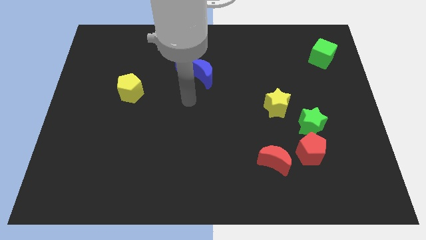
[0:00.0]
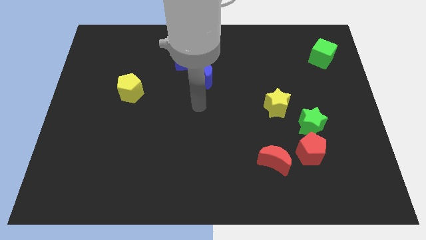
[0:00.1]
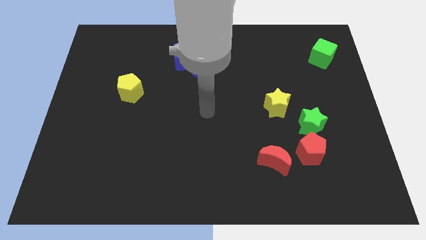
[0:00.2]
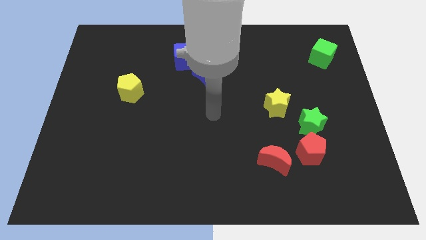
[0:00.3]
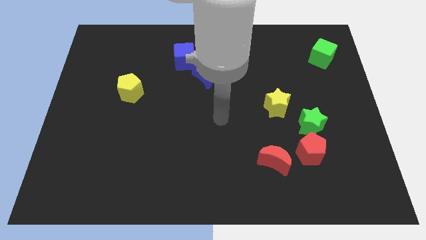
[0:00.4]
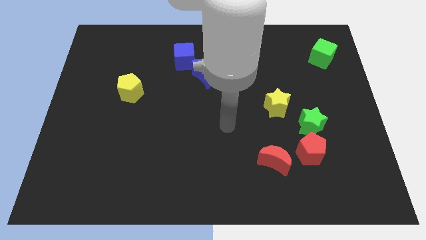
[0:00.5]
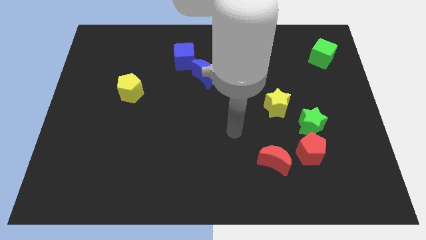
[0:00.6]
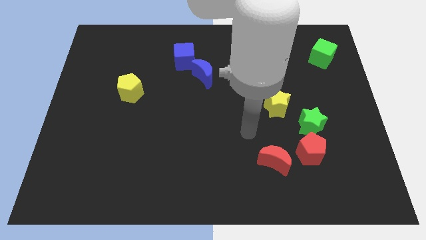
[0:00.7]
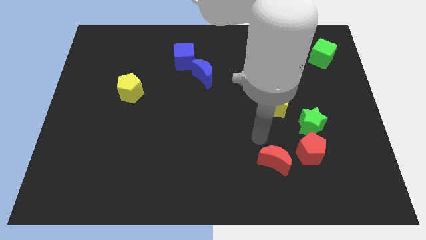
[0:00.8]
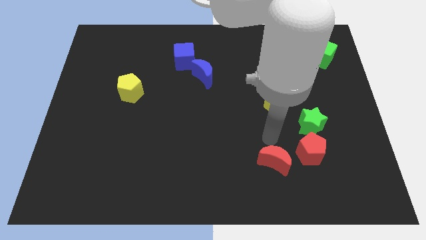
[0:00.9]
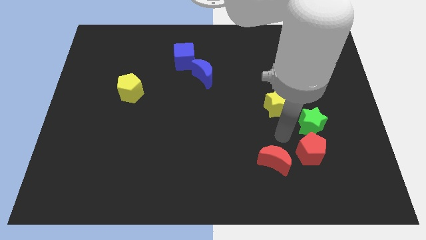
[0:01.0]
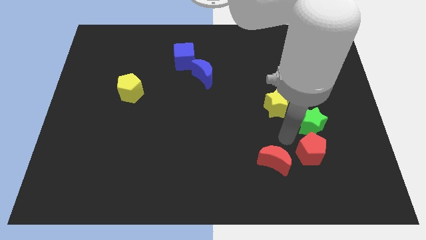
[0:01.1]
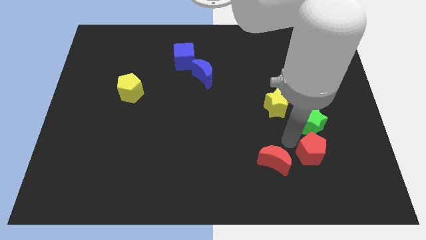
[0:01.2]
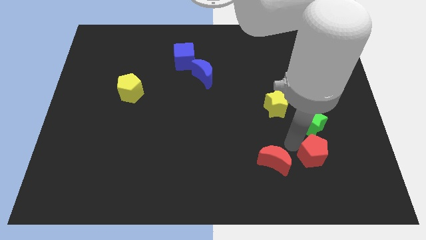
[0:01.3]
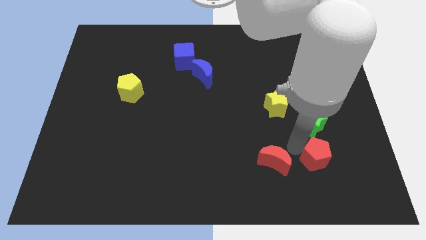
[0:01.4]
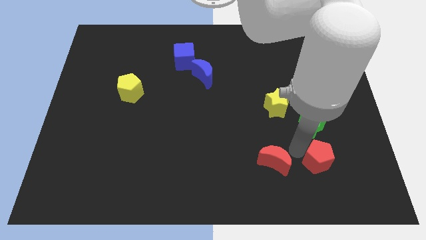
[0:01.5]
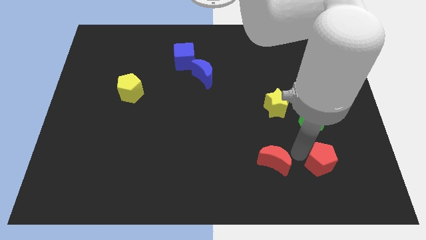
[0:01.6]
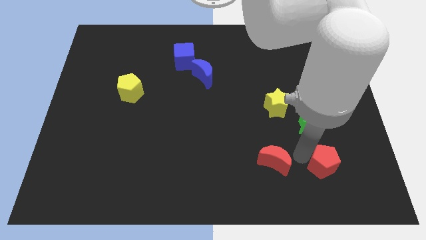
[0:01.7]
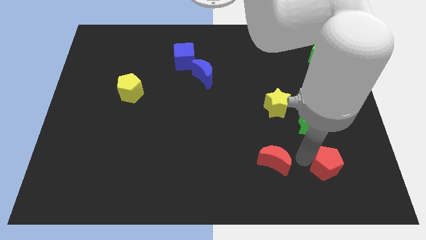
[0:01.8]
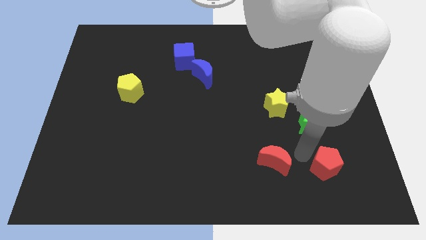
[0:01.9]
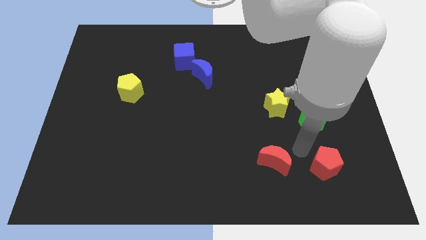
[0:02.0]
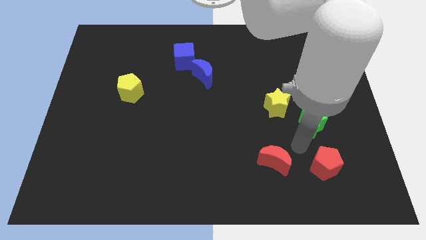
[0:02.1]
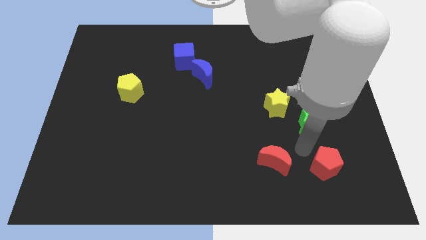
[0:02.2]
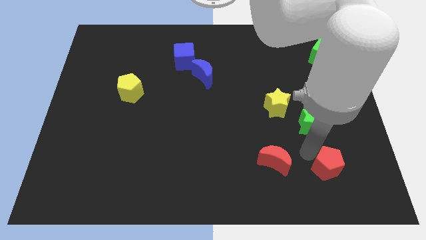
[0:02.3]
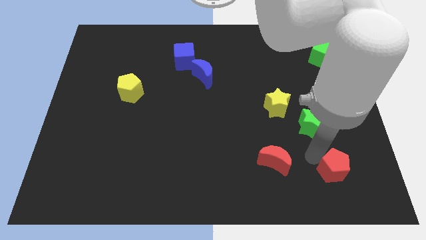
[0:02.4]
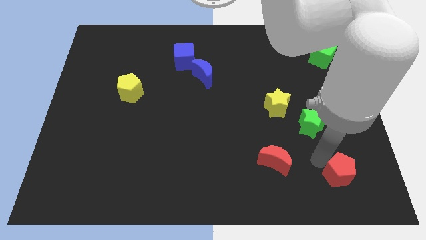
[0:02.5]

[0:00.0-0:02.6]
pull the red pentagon apart from the green star and red moon

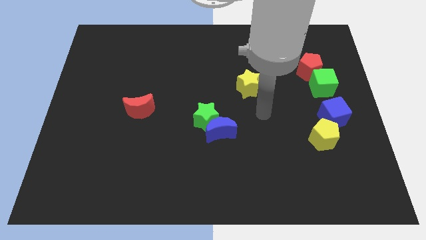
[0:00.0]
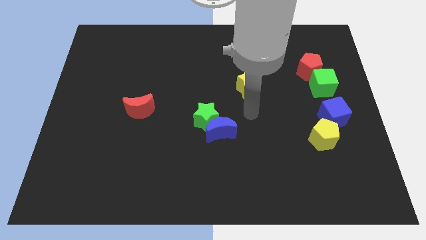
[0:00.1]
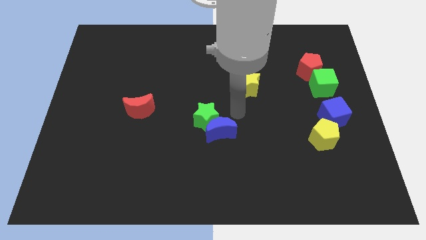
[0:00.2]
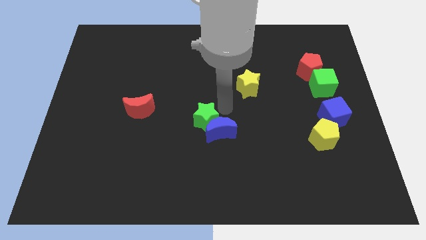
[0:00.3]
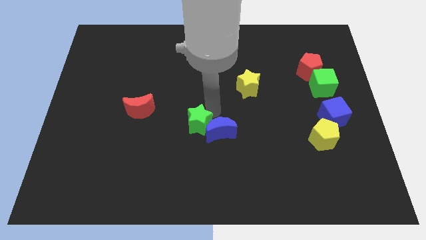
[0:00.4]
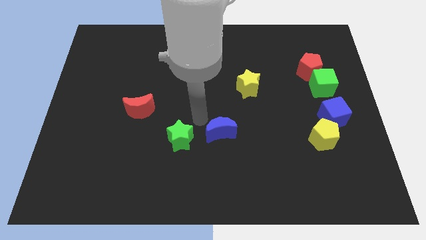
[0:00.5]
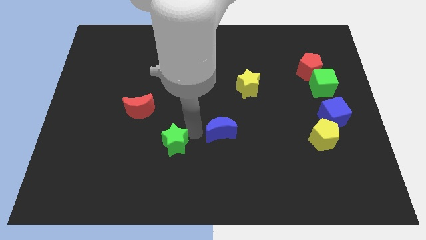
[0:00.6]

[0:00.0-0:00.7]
separate the blue moon from the green star

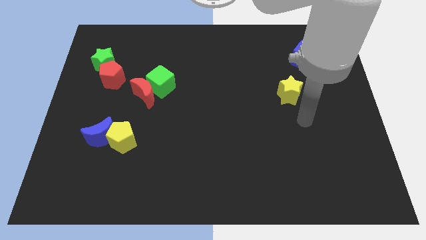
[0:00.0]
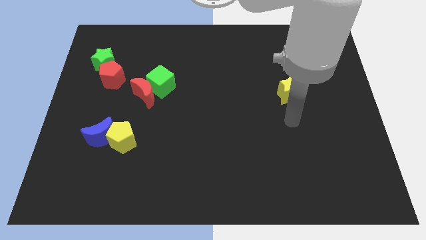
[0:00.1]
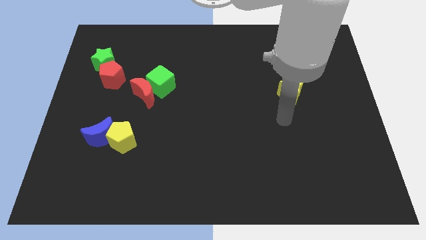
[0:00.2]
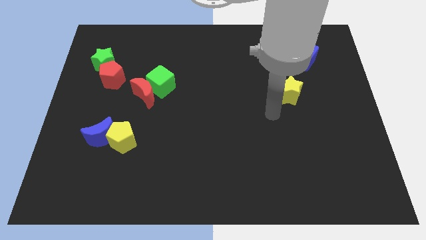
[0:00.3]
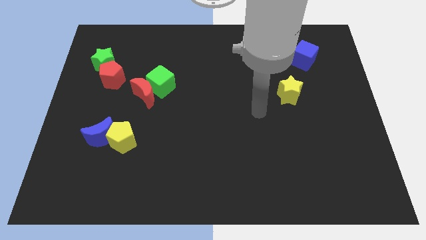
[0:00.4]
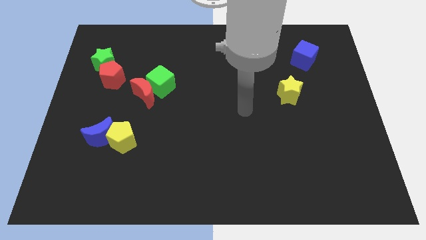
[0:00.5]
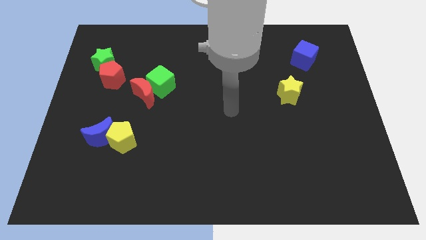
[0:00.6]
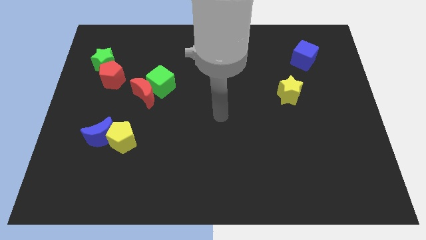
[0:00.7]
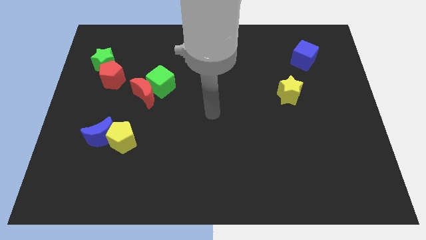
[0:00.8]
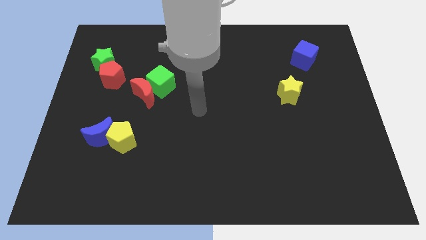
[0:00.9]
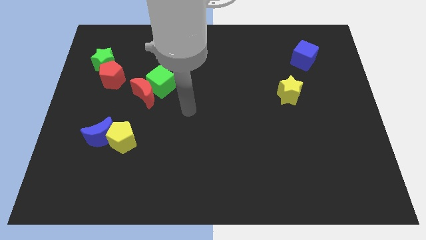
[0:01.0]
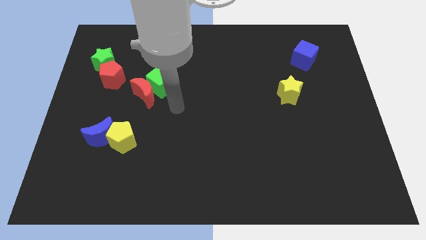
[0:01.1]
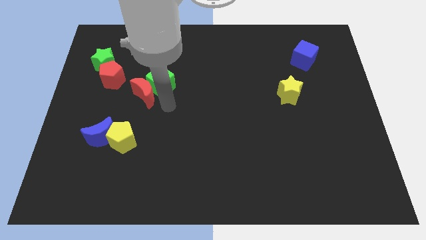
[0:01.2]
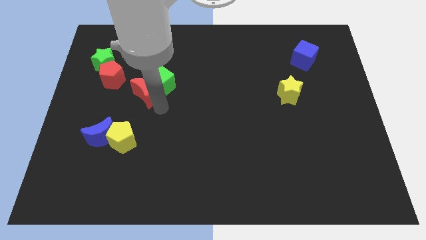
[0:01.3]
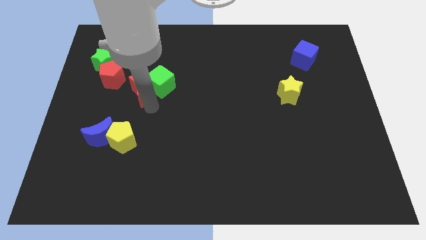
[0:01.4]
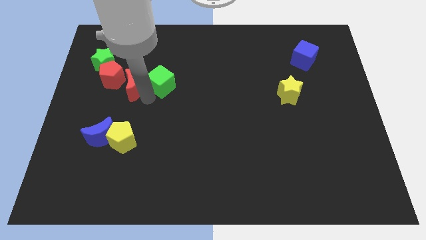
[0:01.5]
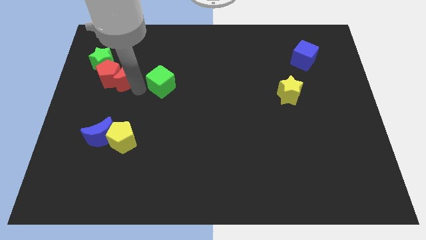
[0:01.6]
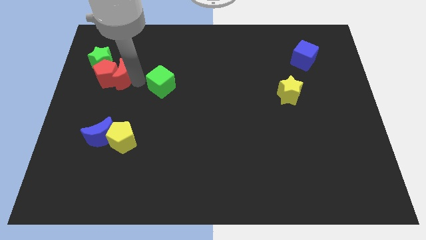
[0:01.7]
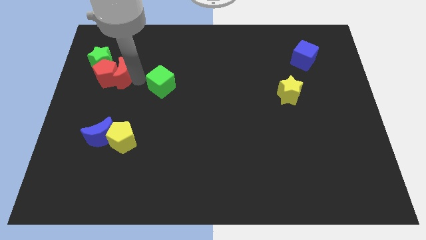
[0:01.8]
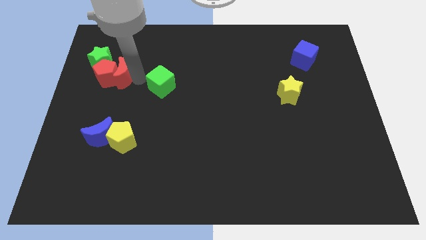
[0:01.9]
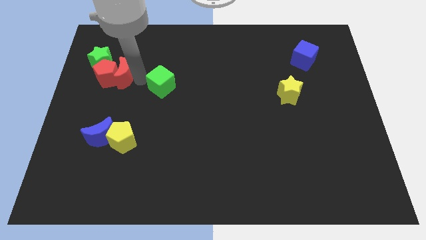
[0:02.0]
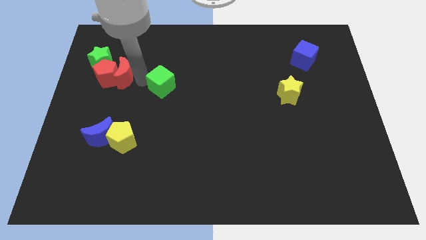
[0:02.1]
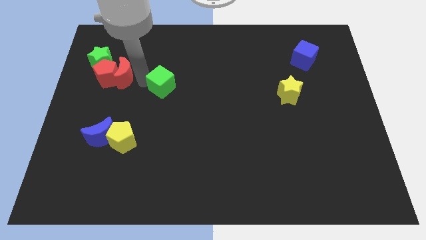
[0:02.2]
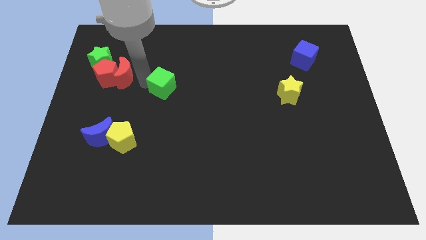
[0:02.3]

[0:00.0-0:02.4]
move the green cube away from the red moon

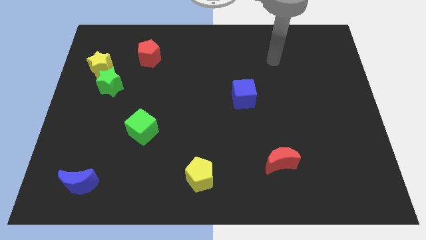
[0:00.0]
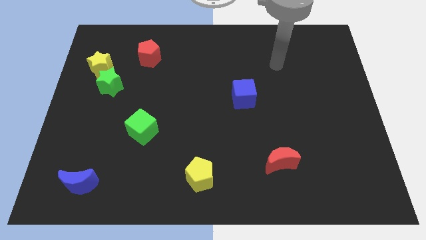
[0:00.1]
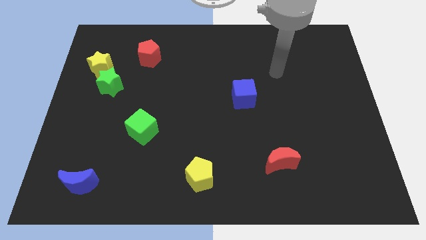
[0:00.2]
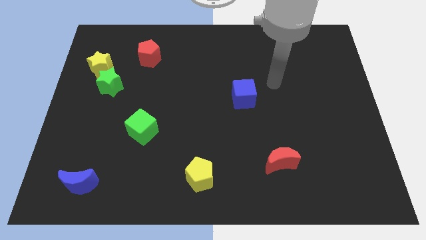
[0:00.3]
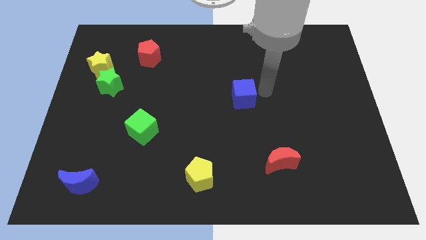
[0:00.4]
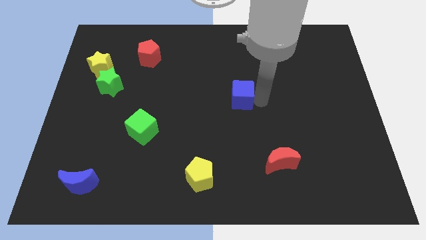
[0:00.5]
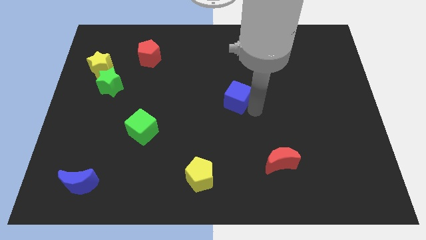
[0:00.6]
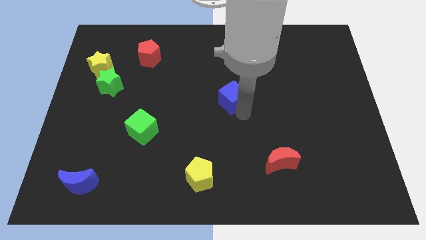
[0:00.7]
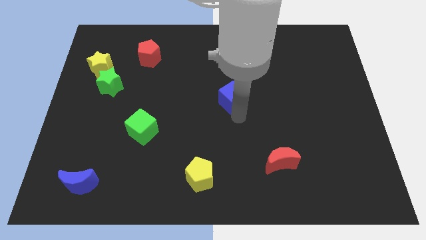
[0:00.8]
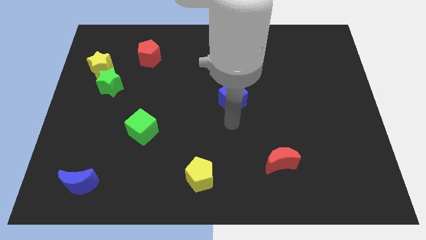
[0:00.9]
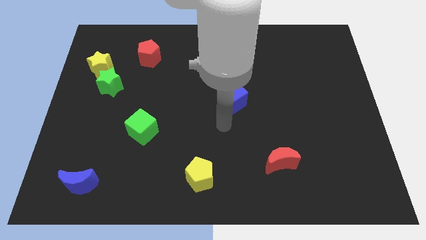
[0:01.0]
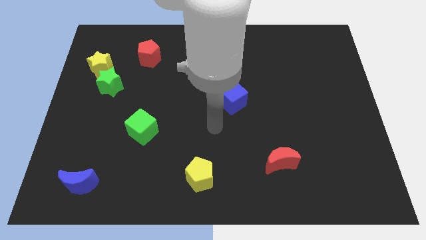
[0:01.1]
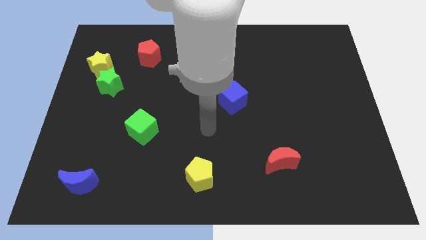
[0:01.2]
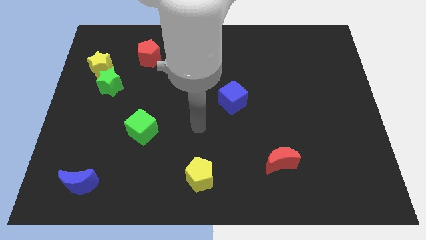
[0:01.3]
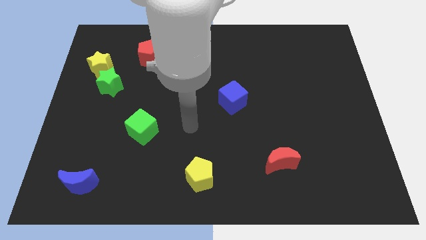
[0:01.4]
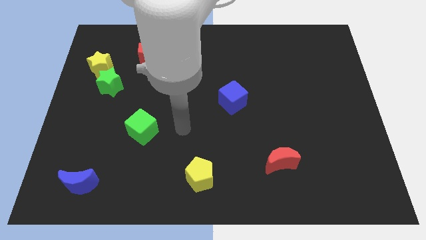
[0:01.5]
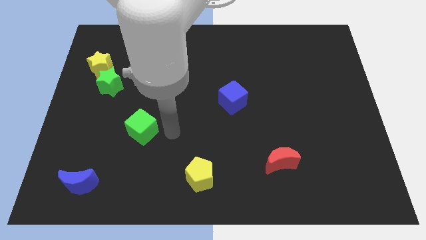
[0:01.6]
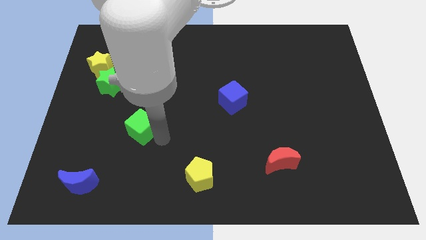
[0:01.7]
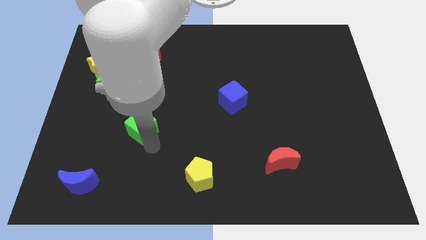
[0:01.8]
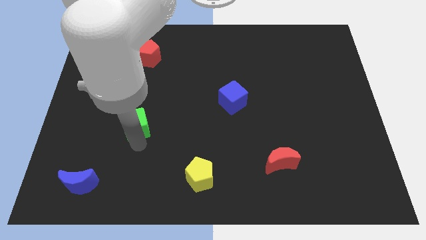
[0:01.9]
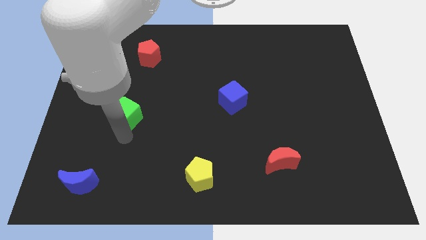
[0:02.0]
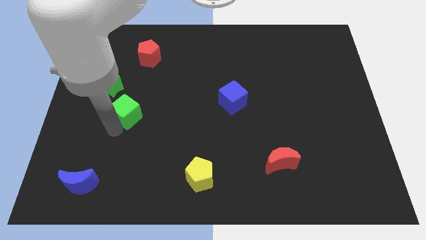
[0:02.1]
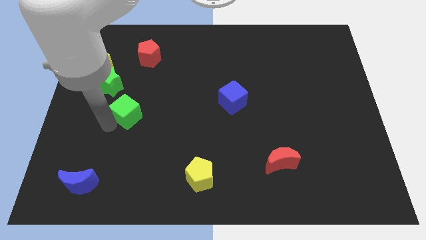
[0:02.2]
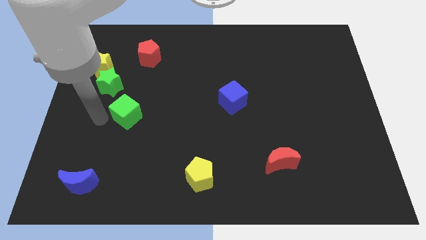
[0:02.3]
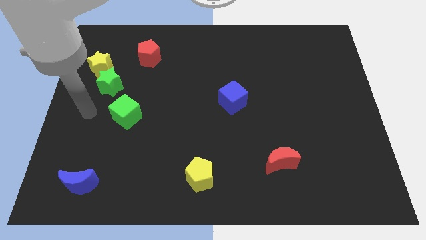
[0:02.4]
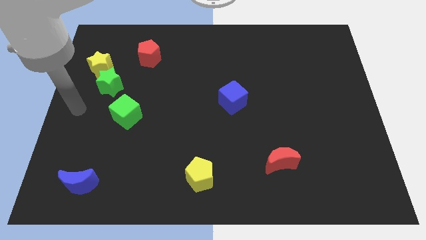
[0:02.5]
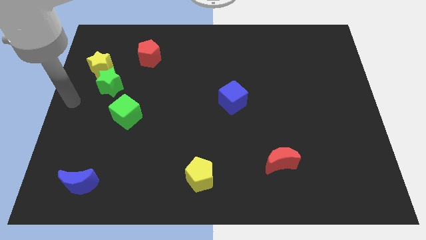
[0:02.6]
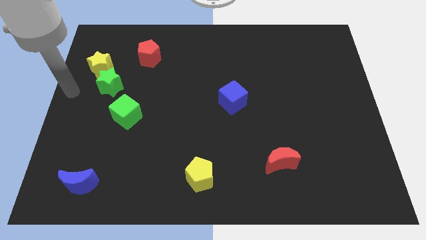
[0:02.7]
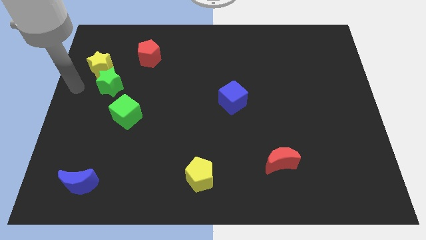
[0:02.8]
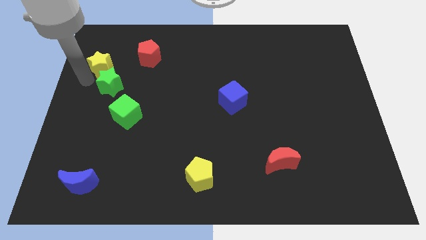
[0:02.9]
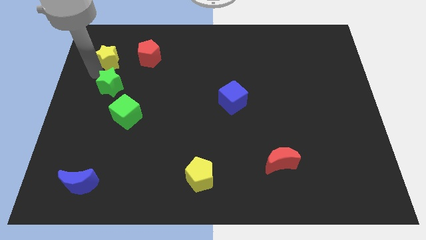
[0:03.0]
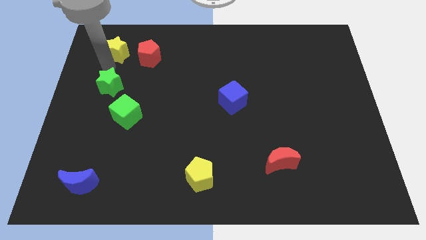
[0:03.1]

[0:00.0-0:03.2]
pull the green star apart from the yellow star

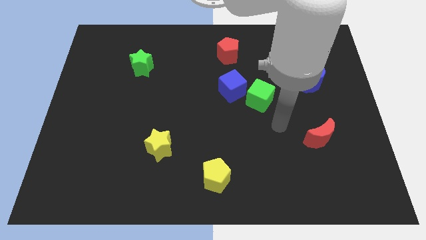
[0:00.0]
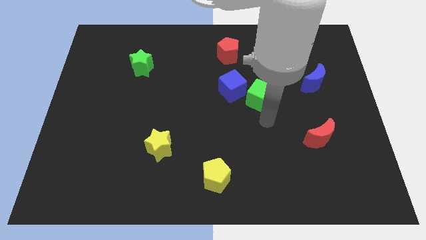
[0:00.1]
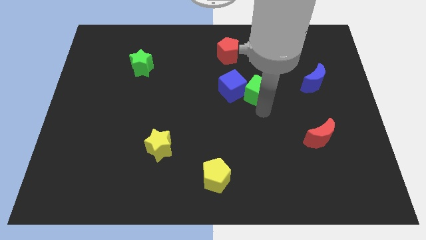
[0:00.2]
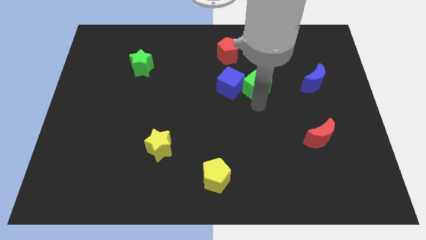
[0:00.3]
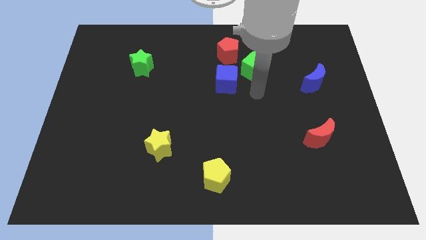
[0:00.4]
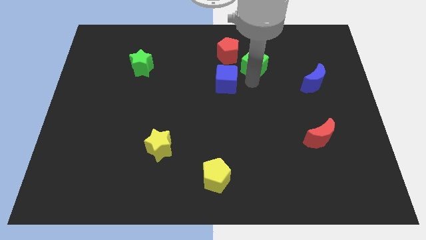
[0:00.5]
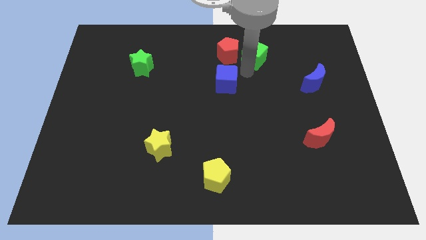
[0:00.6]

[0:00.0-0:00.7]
pull the blue cube apart from the green cube
